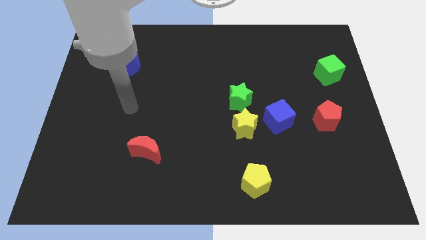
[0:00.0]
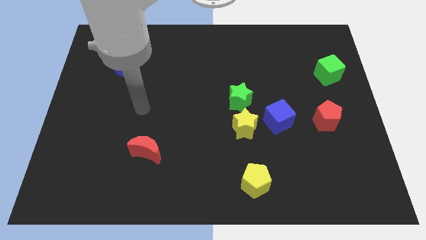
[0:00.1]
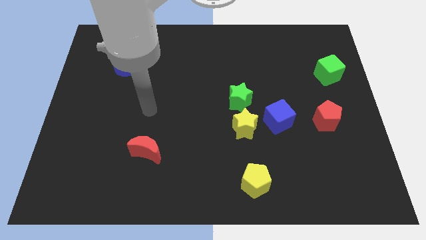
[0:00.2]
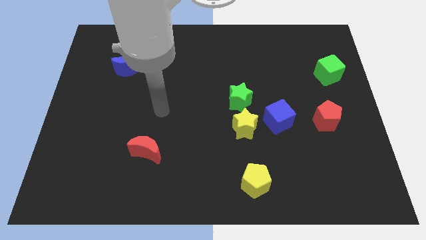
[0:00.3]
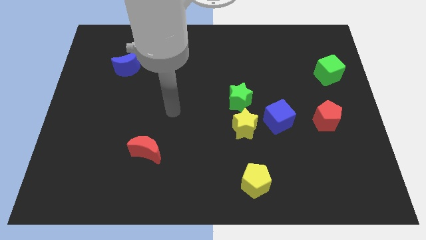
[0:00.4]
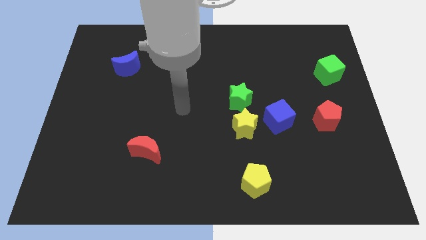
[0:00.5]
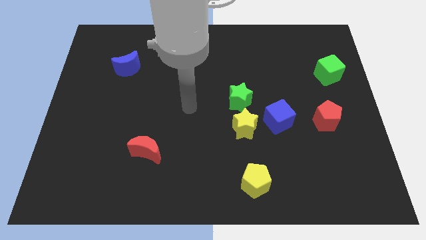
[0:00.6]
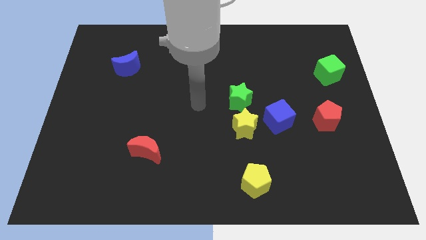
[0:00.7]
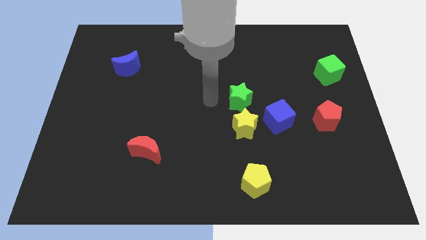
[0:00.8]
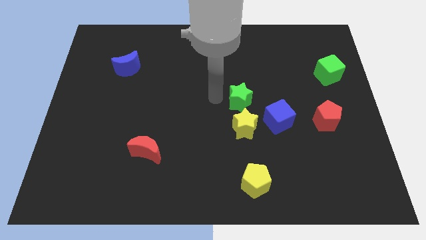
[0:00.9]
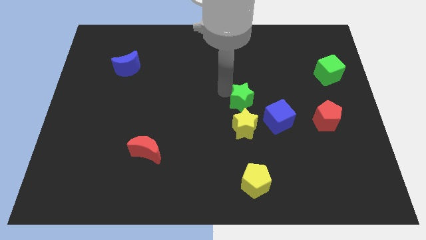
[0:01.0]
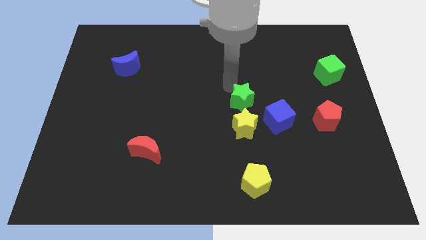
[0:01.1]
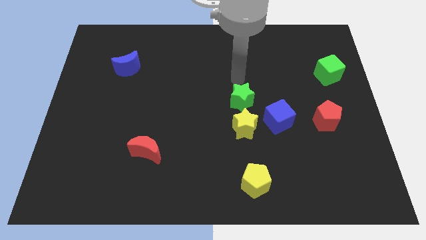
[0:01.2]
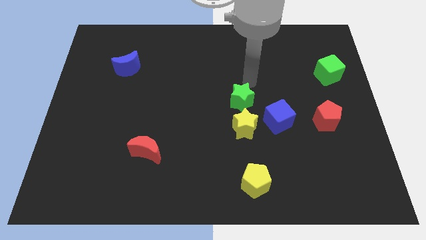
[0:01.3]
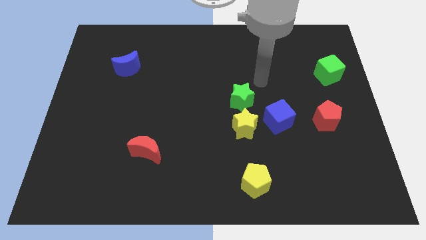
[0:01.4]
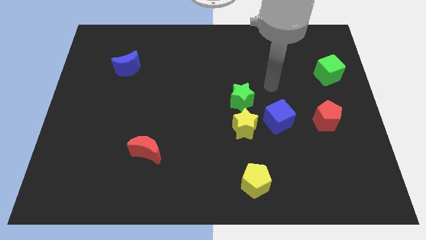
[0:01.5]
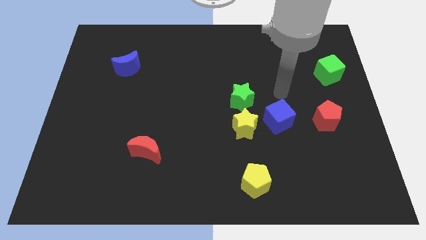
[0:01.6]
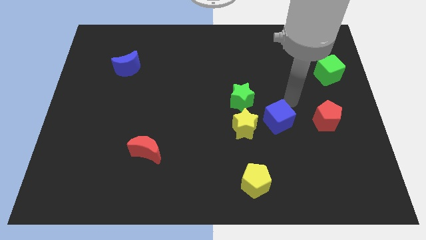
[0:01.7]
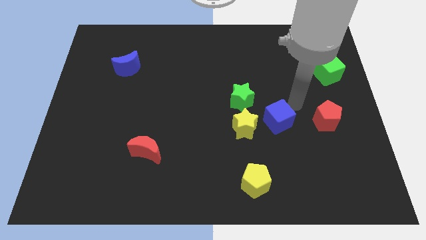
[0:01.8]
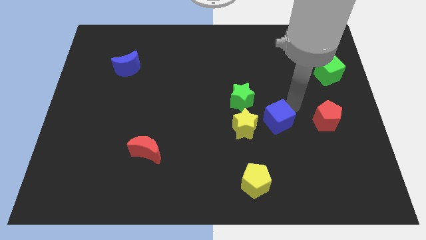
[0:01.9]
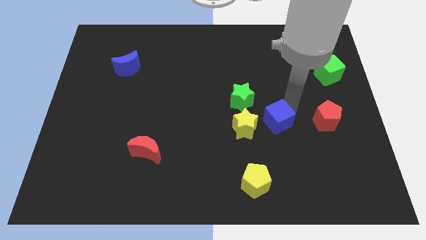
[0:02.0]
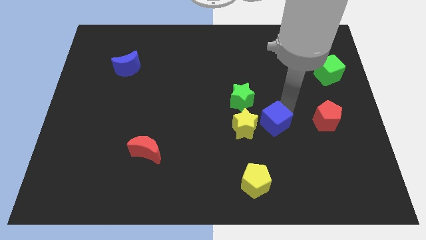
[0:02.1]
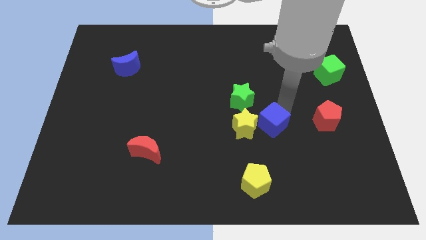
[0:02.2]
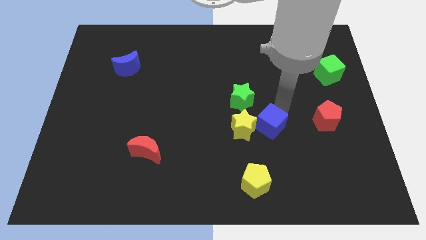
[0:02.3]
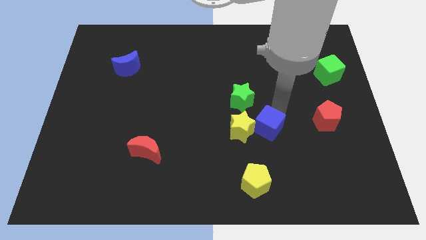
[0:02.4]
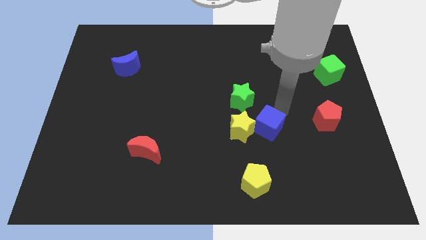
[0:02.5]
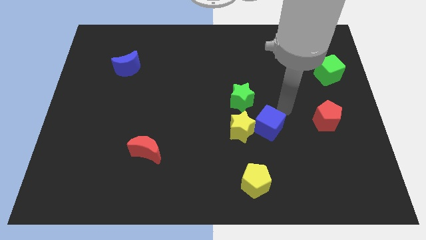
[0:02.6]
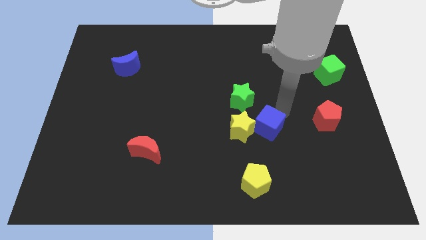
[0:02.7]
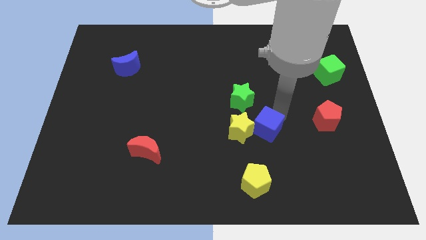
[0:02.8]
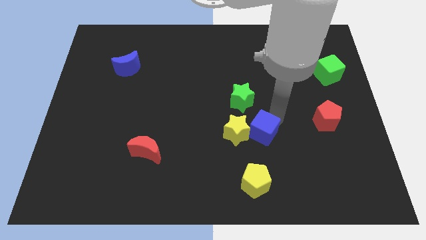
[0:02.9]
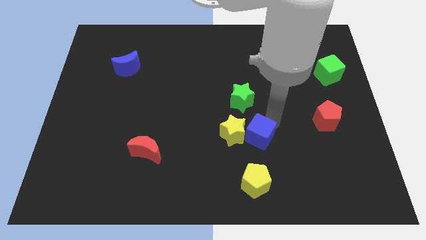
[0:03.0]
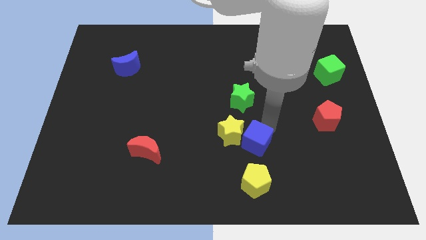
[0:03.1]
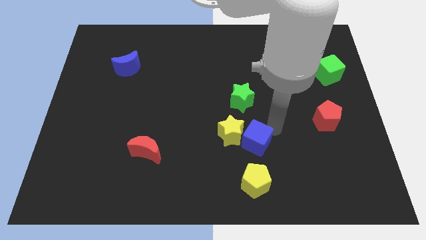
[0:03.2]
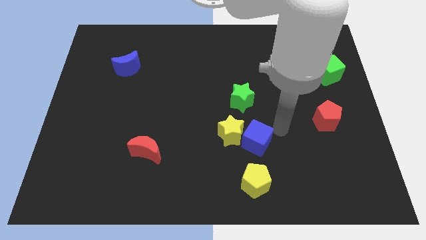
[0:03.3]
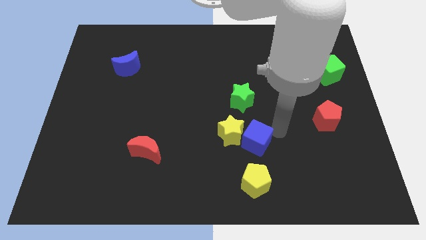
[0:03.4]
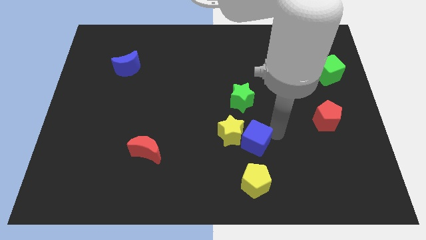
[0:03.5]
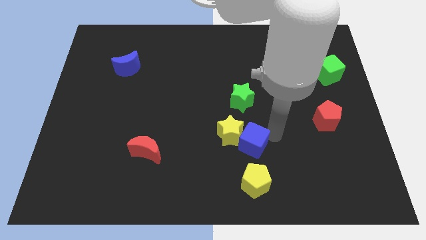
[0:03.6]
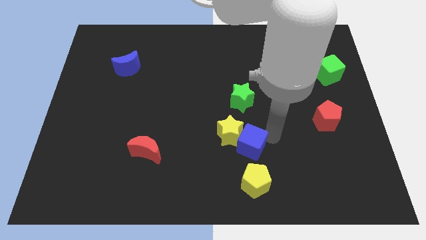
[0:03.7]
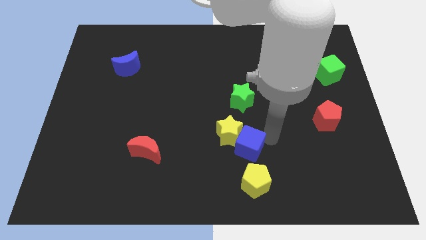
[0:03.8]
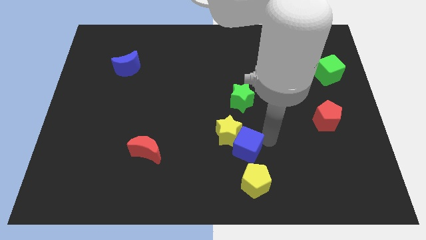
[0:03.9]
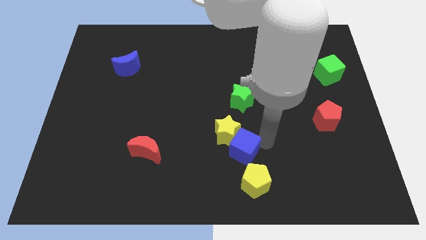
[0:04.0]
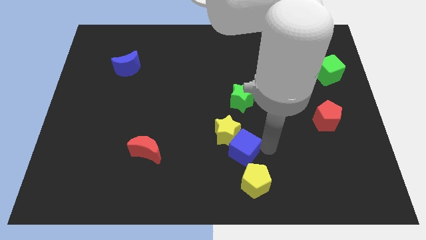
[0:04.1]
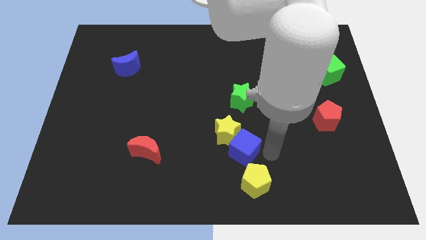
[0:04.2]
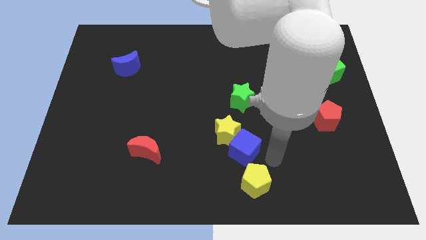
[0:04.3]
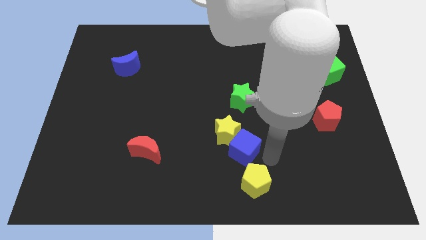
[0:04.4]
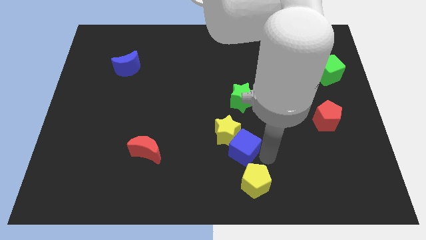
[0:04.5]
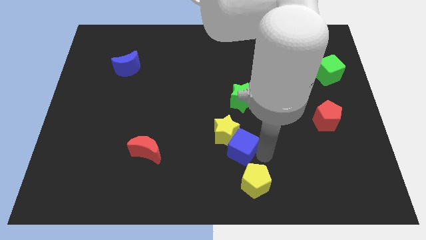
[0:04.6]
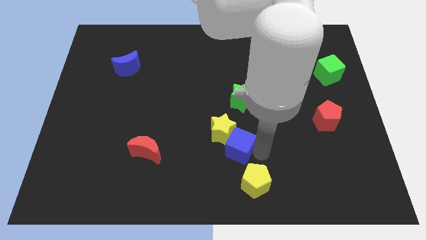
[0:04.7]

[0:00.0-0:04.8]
slightly slide the blue cube left

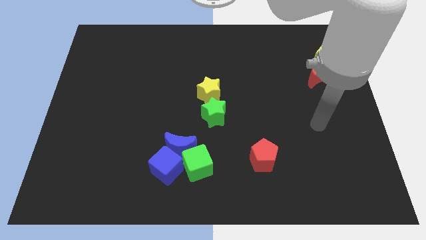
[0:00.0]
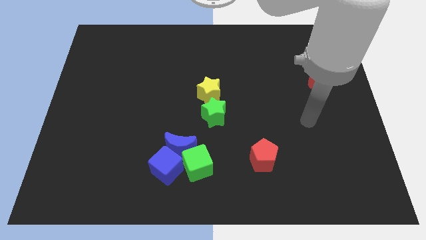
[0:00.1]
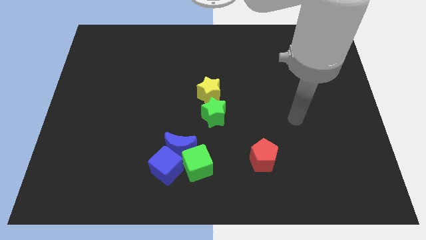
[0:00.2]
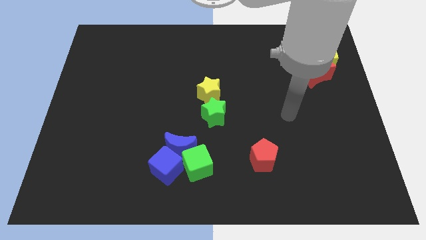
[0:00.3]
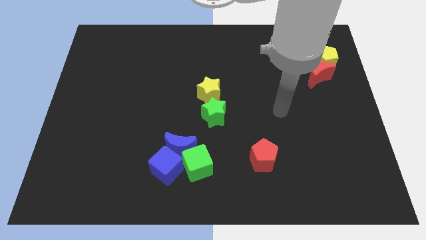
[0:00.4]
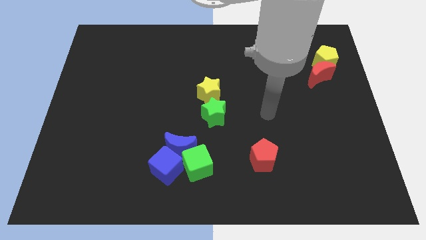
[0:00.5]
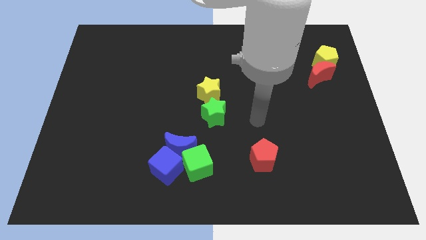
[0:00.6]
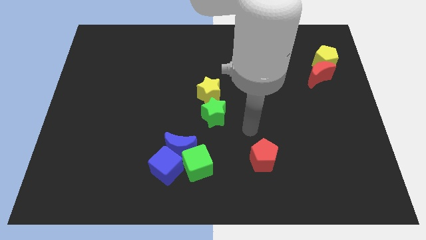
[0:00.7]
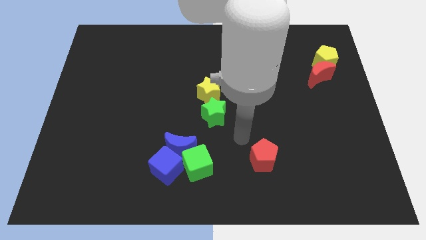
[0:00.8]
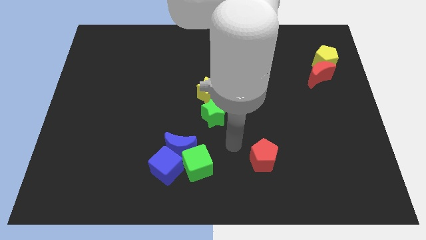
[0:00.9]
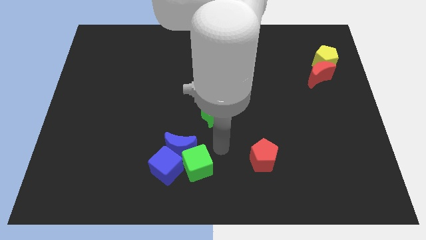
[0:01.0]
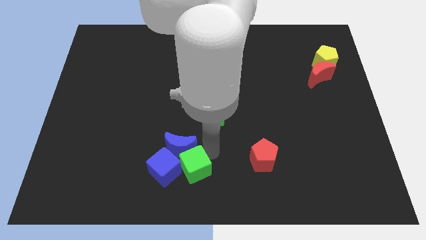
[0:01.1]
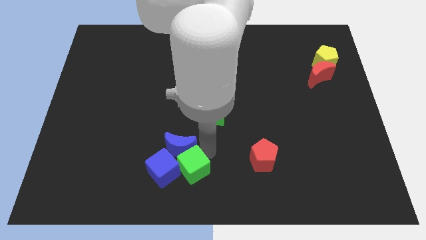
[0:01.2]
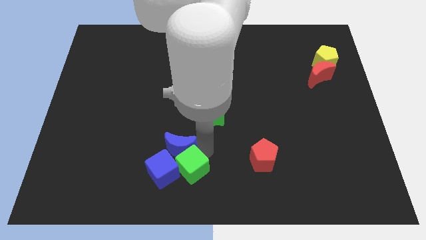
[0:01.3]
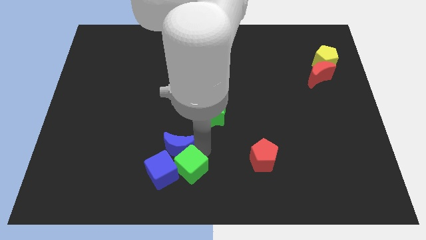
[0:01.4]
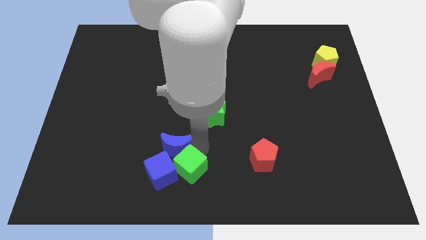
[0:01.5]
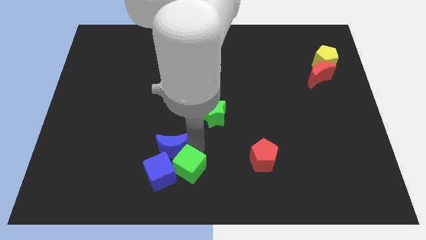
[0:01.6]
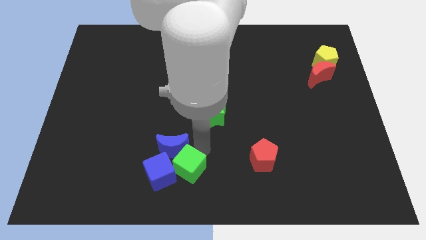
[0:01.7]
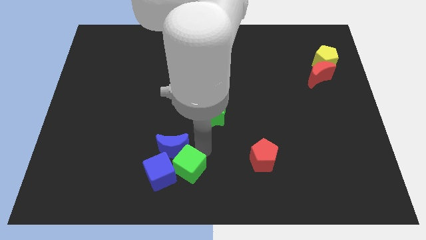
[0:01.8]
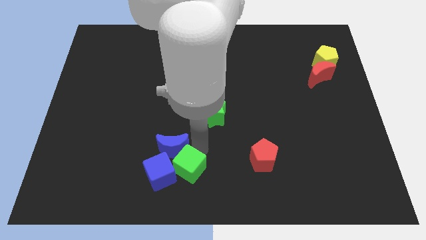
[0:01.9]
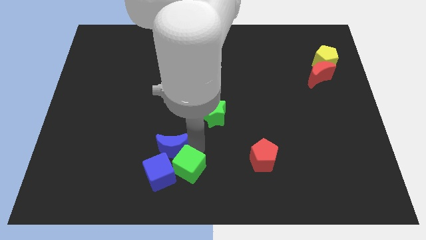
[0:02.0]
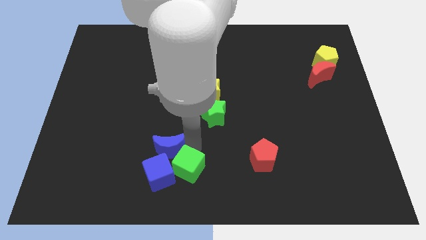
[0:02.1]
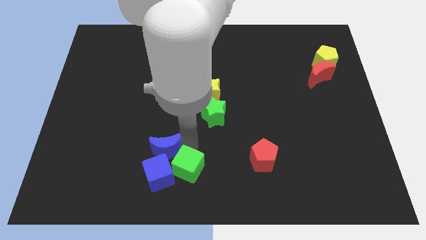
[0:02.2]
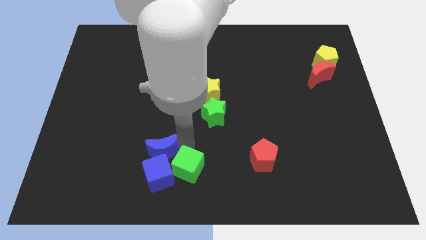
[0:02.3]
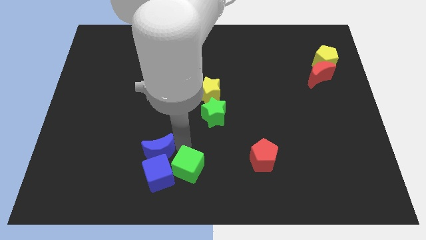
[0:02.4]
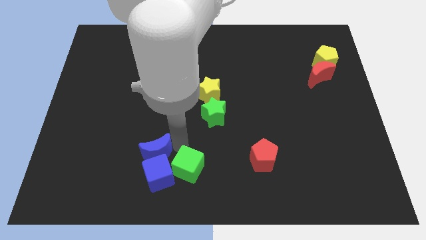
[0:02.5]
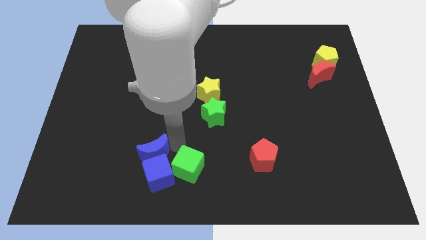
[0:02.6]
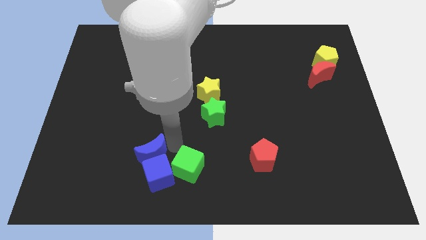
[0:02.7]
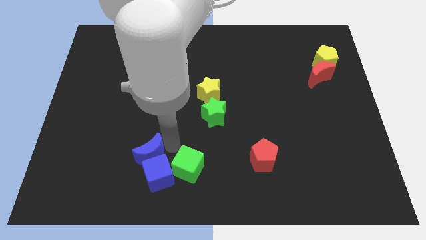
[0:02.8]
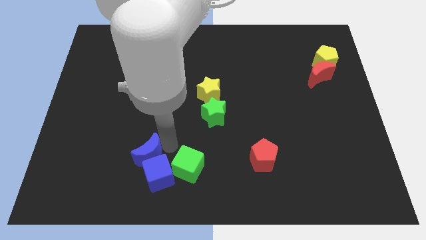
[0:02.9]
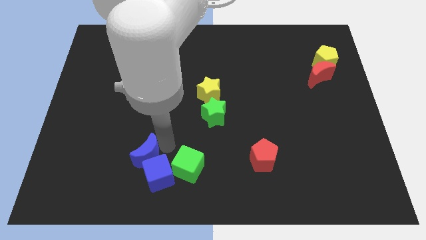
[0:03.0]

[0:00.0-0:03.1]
slide the blue moon a bit left
